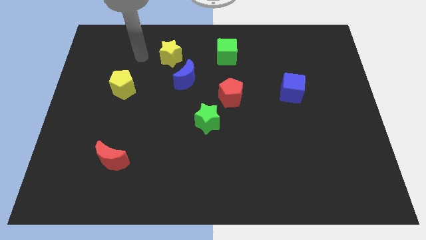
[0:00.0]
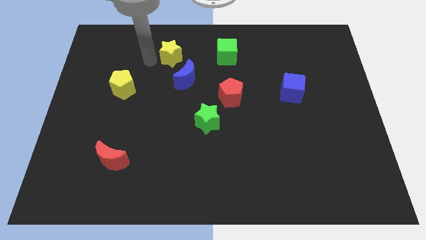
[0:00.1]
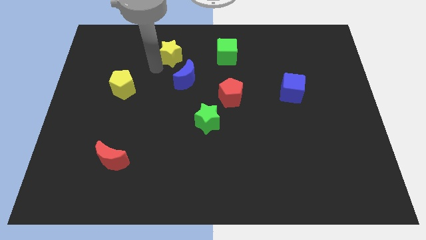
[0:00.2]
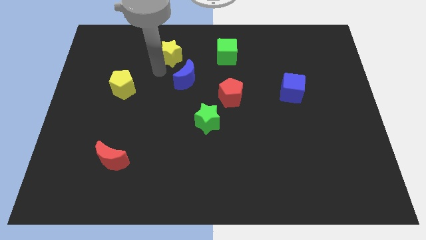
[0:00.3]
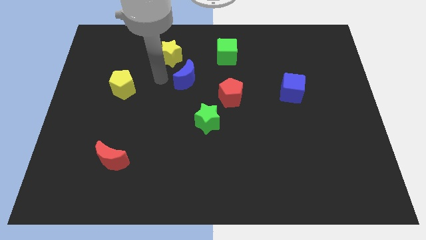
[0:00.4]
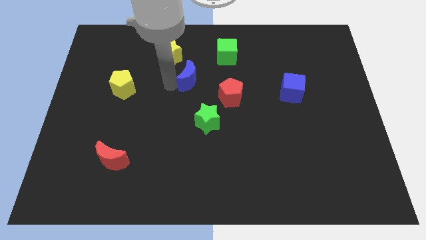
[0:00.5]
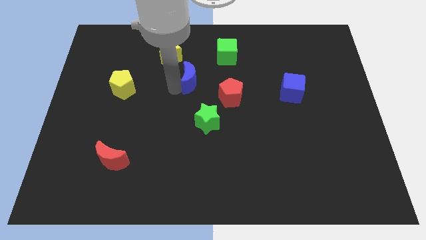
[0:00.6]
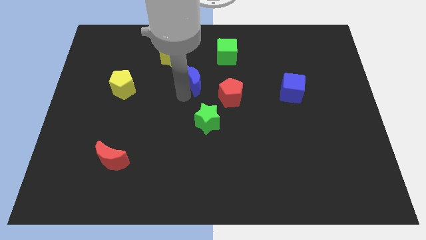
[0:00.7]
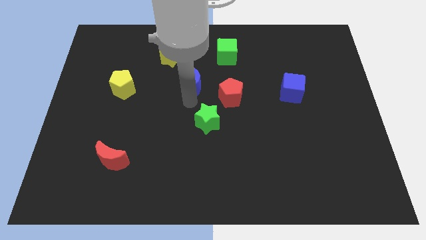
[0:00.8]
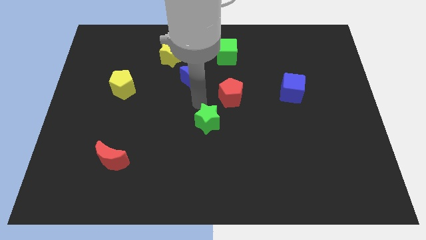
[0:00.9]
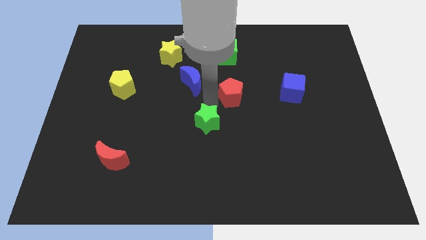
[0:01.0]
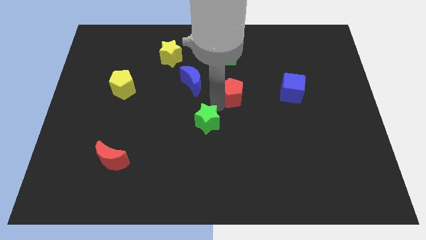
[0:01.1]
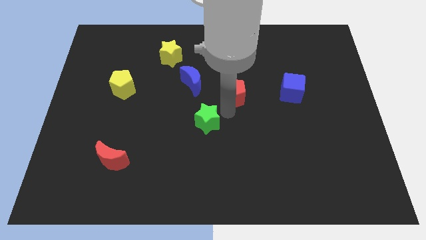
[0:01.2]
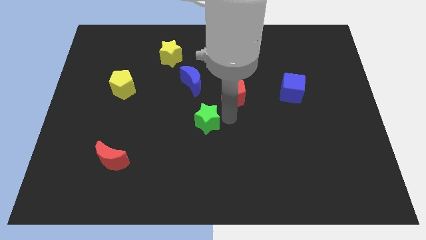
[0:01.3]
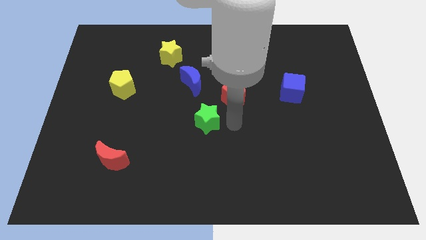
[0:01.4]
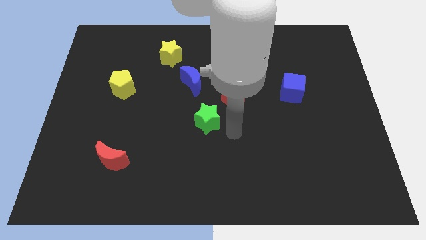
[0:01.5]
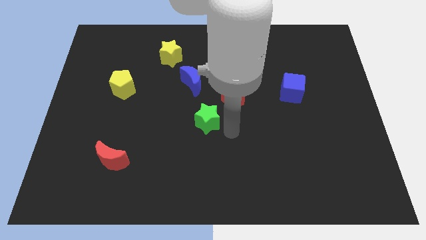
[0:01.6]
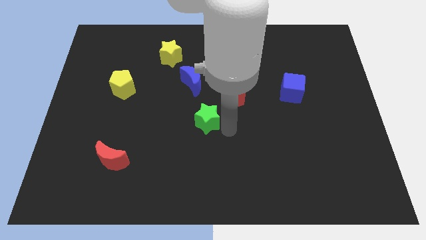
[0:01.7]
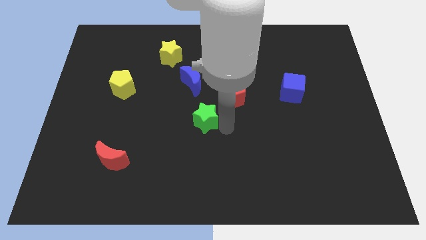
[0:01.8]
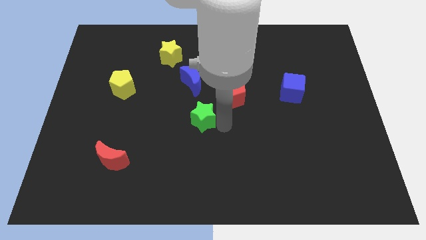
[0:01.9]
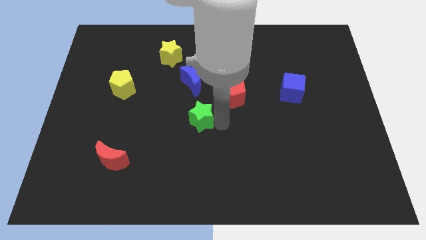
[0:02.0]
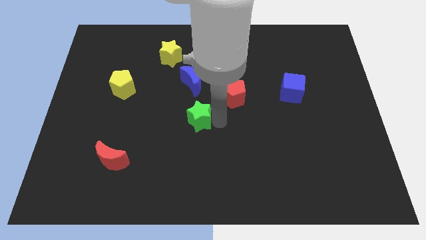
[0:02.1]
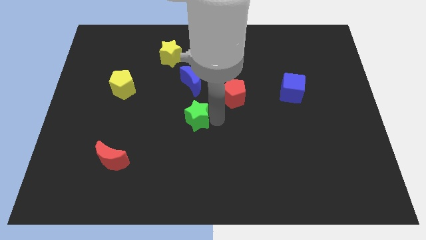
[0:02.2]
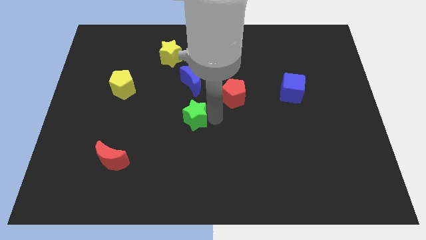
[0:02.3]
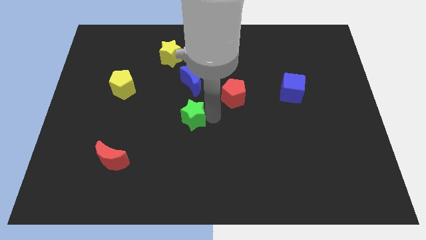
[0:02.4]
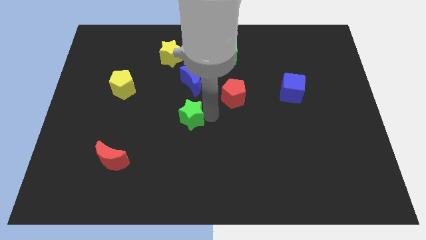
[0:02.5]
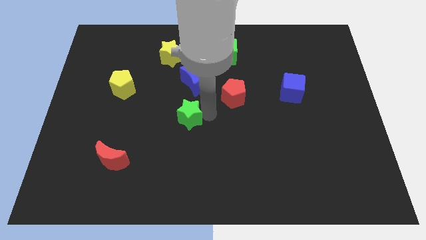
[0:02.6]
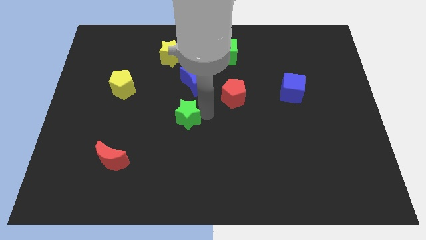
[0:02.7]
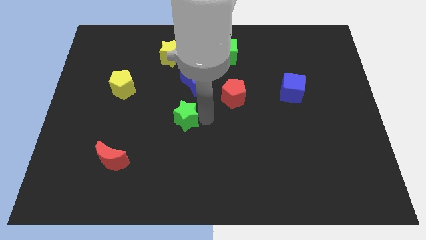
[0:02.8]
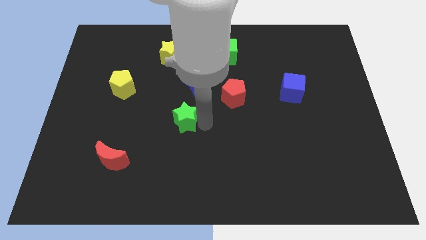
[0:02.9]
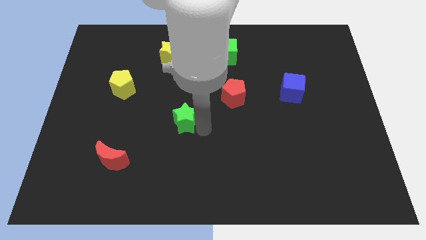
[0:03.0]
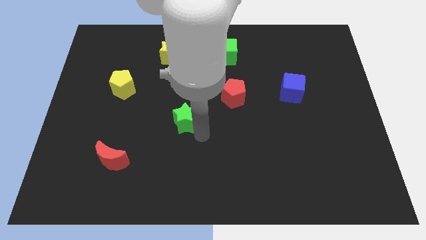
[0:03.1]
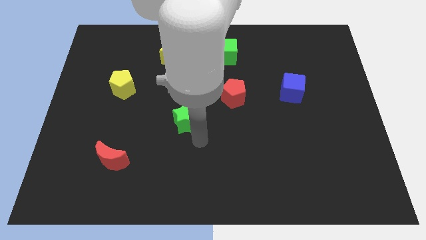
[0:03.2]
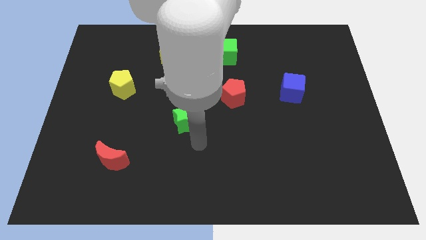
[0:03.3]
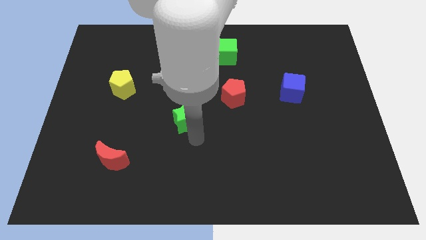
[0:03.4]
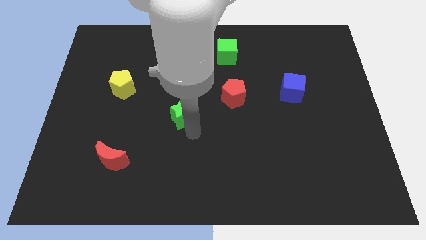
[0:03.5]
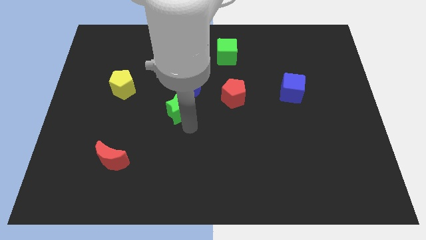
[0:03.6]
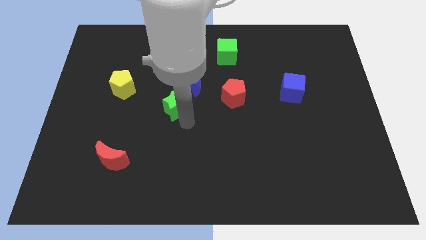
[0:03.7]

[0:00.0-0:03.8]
slide the green star upwards and to the left somewhat

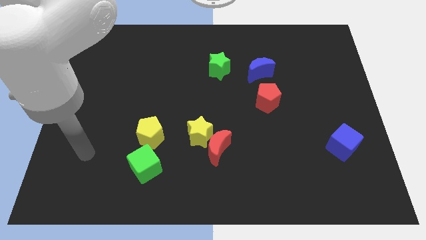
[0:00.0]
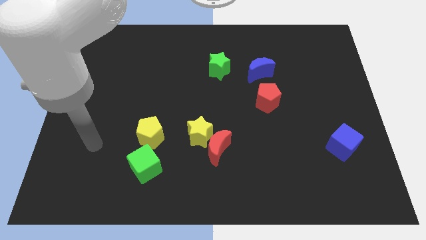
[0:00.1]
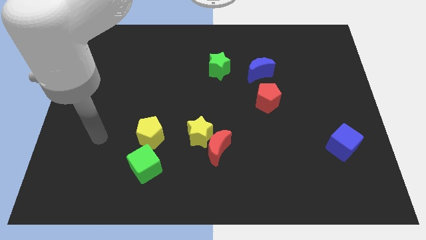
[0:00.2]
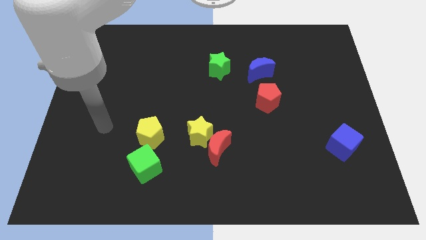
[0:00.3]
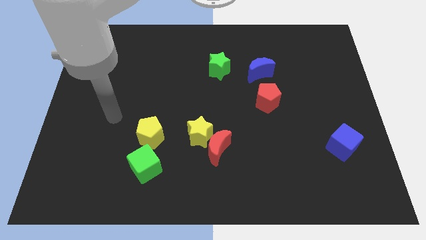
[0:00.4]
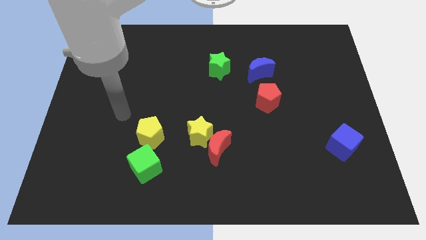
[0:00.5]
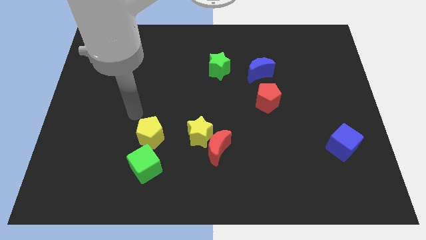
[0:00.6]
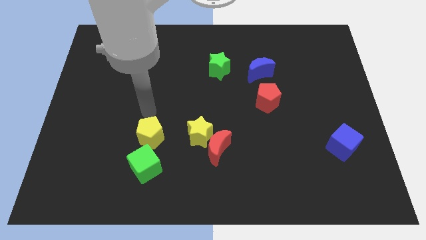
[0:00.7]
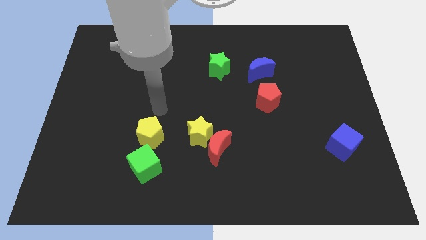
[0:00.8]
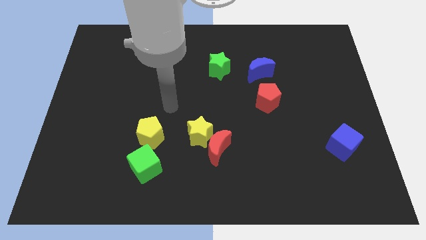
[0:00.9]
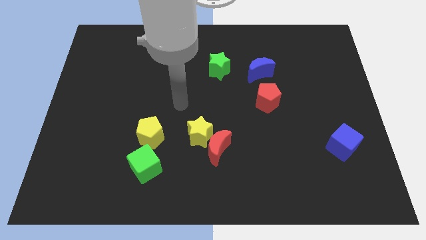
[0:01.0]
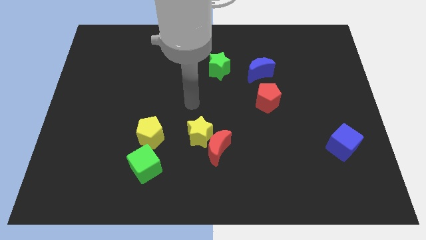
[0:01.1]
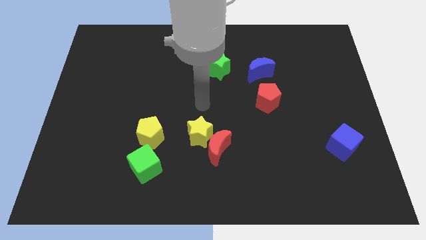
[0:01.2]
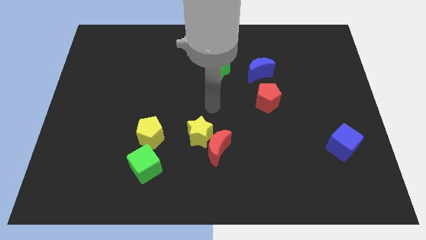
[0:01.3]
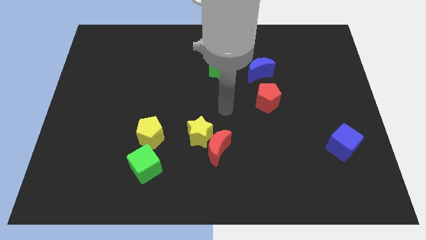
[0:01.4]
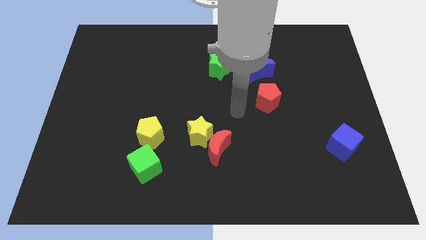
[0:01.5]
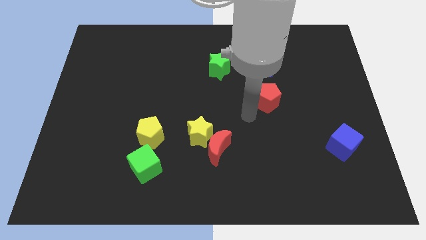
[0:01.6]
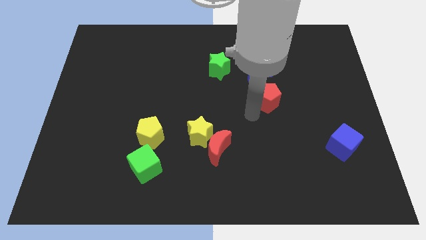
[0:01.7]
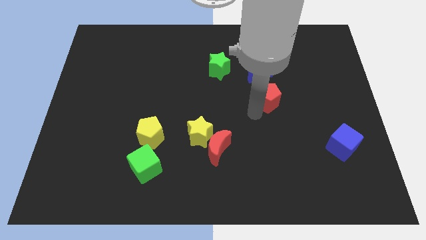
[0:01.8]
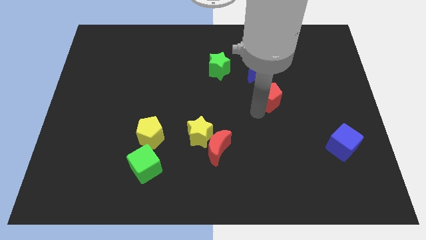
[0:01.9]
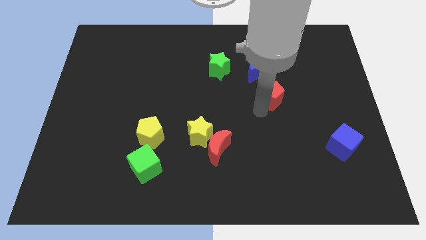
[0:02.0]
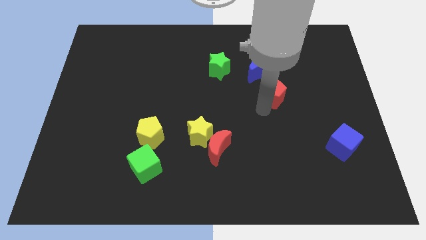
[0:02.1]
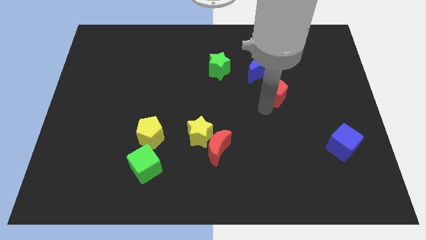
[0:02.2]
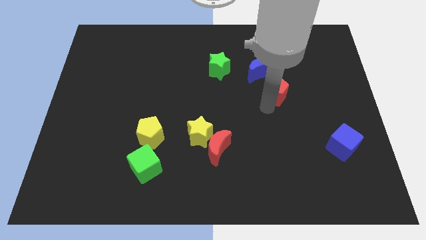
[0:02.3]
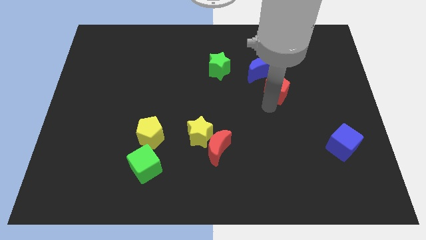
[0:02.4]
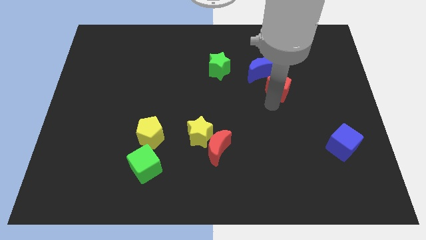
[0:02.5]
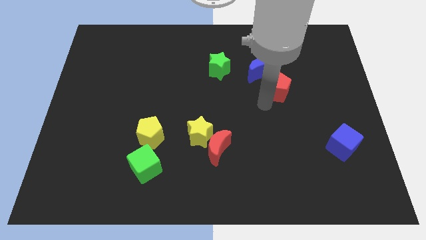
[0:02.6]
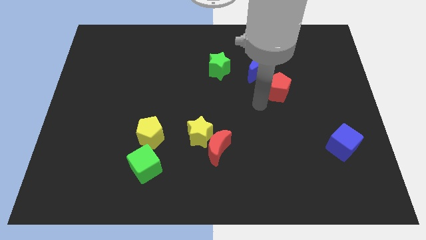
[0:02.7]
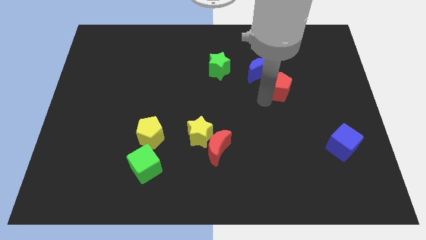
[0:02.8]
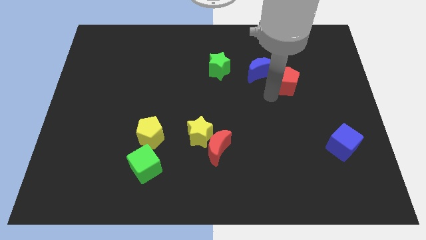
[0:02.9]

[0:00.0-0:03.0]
slide the red pentagon a little bit diagonally upwards and to the right

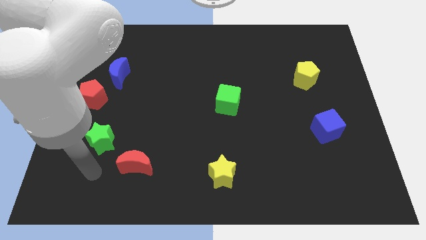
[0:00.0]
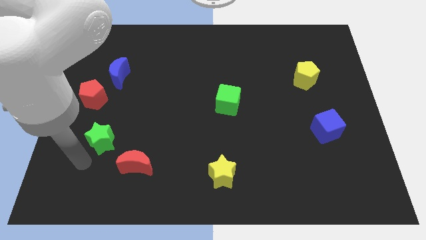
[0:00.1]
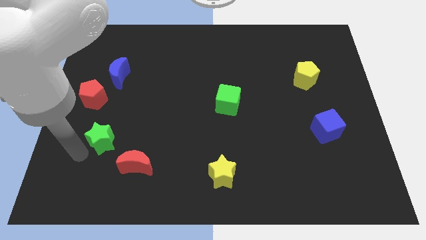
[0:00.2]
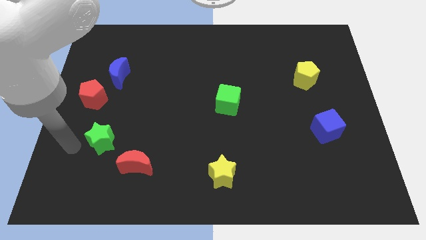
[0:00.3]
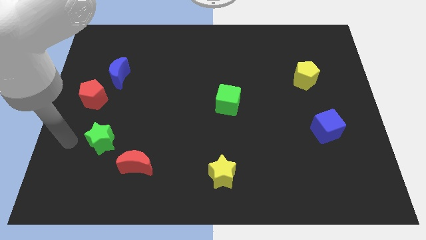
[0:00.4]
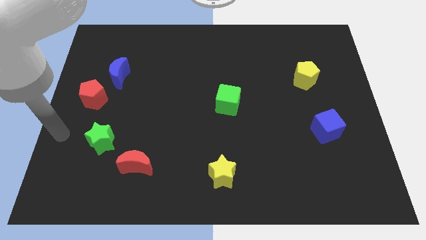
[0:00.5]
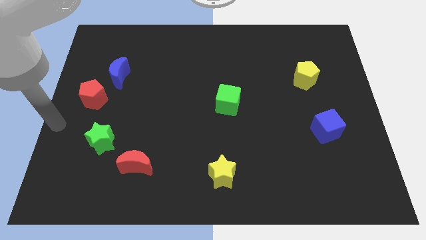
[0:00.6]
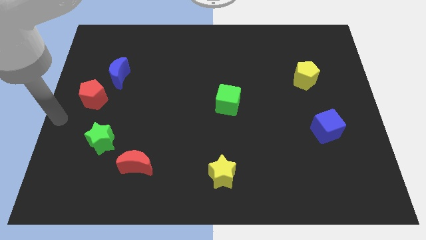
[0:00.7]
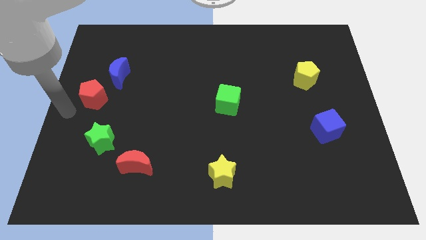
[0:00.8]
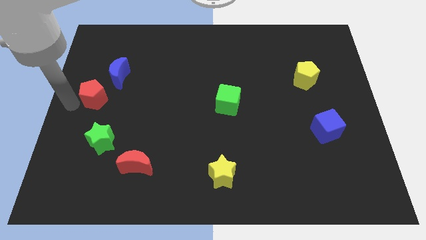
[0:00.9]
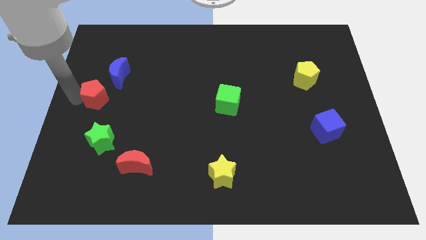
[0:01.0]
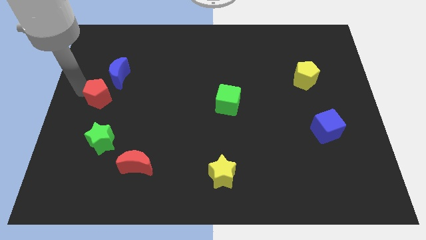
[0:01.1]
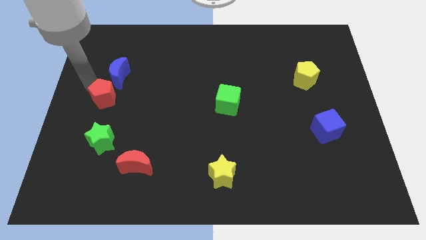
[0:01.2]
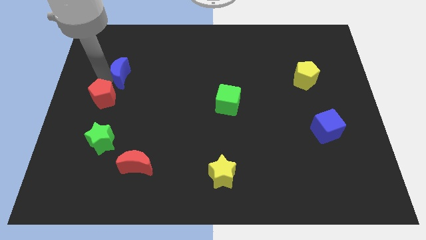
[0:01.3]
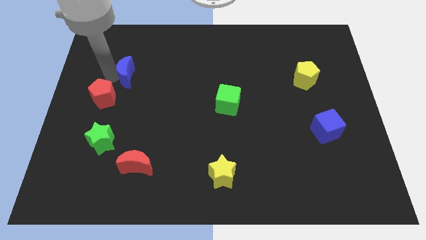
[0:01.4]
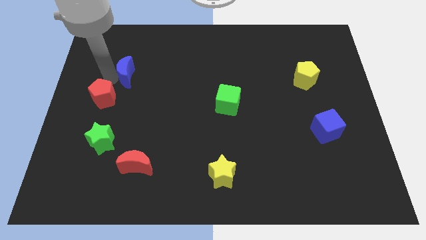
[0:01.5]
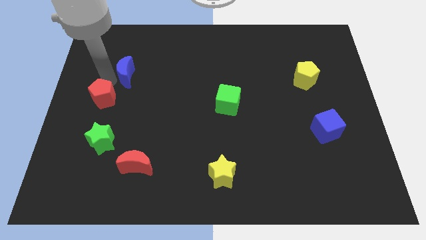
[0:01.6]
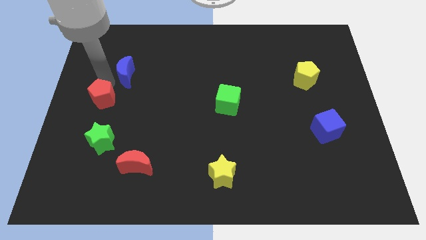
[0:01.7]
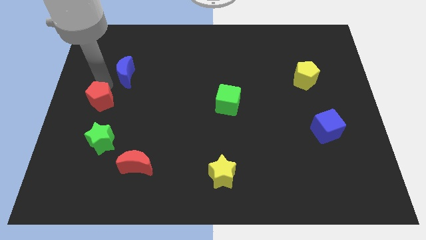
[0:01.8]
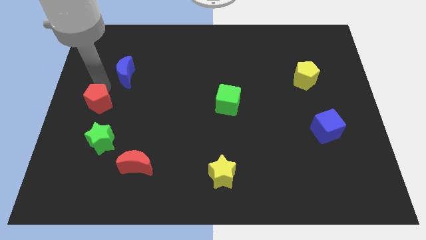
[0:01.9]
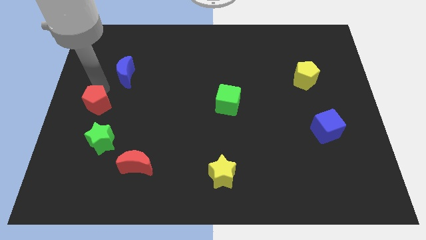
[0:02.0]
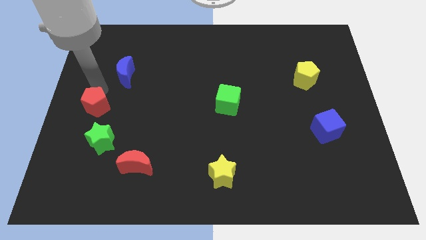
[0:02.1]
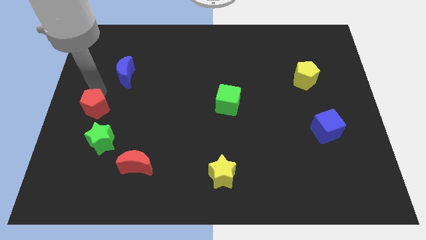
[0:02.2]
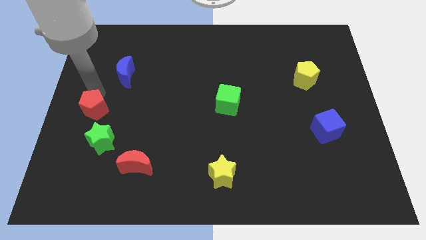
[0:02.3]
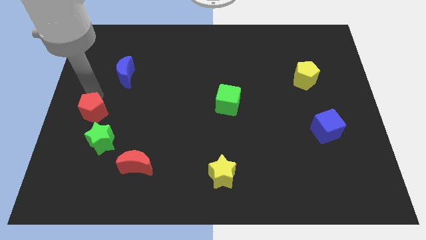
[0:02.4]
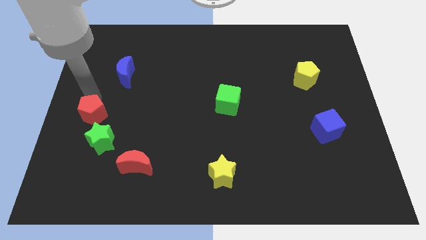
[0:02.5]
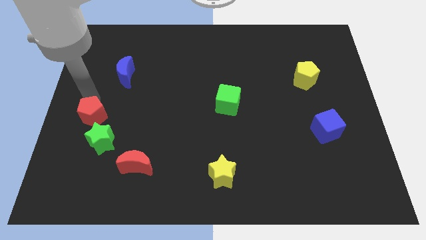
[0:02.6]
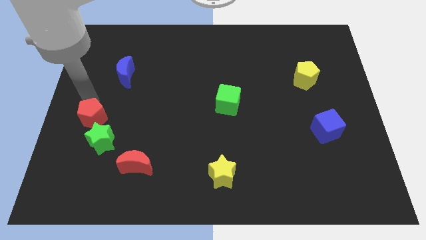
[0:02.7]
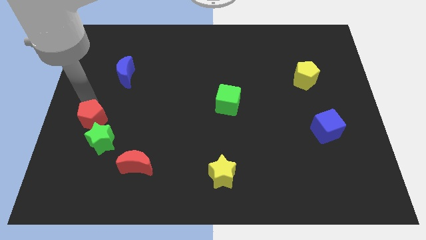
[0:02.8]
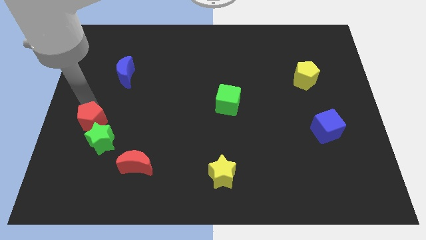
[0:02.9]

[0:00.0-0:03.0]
move the red pentagon a little bit downwards
